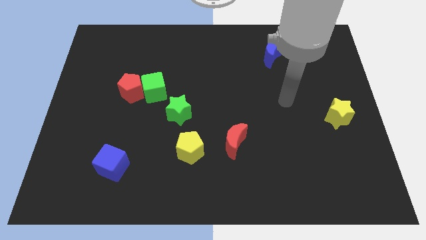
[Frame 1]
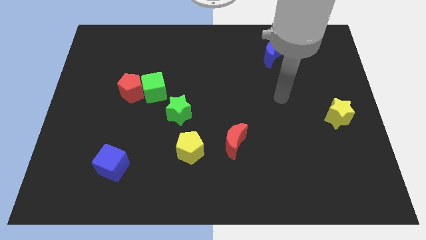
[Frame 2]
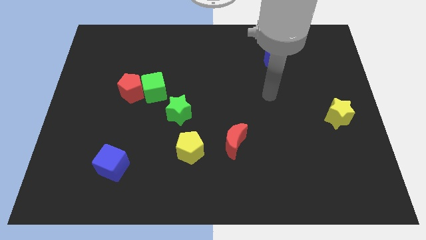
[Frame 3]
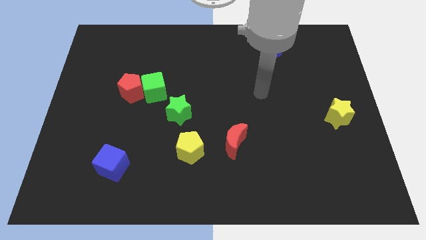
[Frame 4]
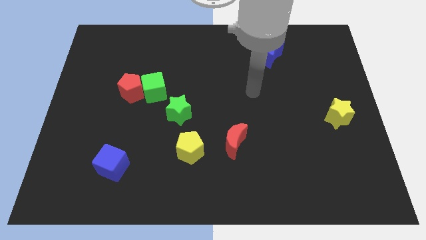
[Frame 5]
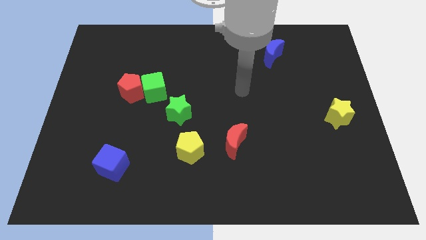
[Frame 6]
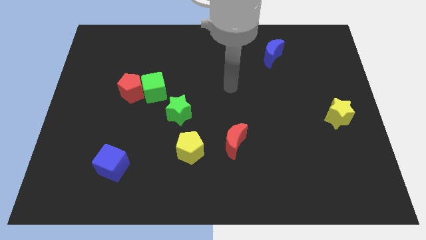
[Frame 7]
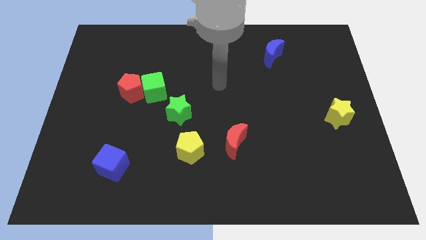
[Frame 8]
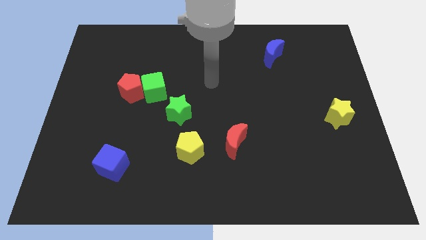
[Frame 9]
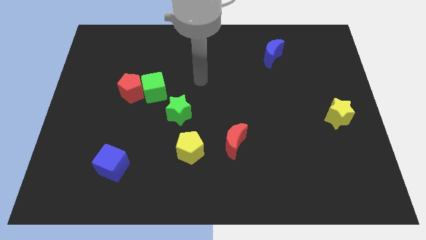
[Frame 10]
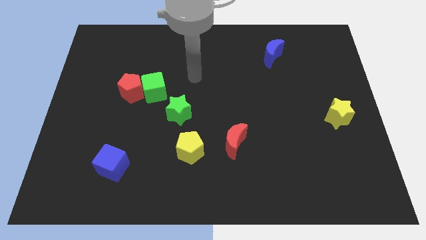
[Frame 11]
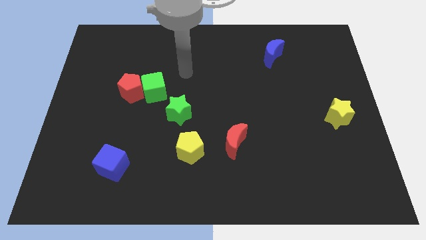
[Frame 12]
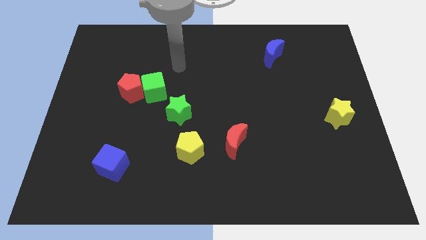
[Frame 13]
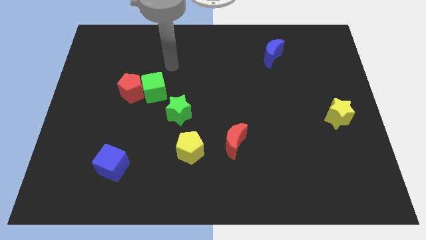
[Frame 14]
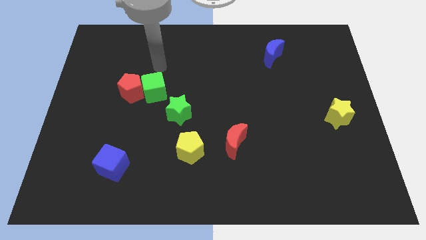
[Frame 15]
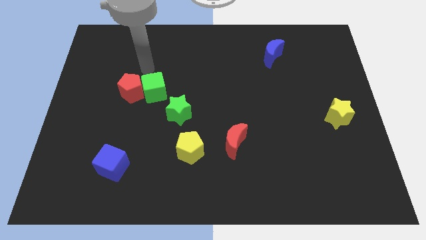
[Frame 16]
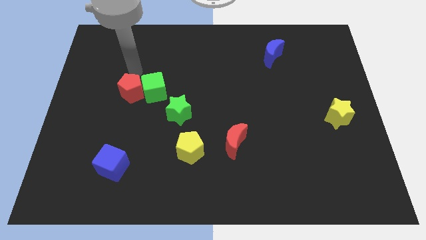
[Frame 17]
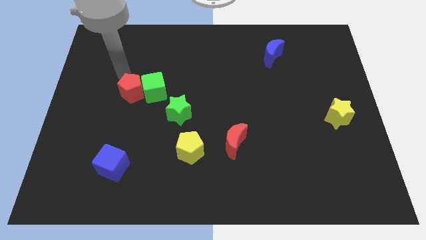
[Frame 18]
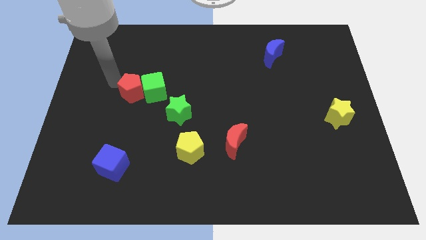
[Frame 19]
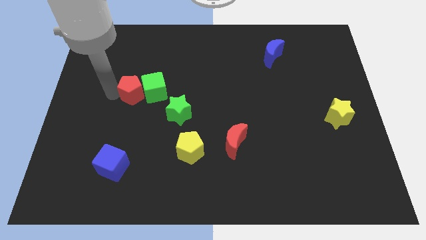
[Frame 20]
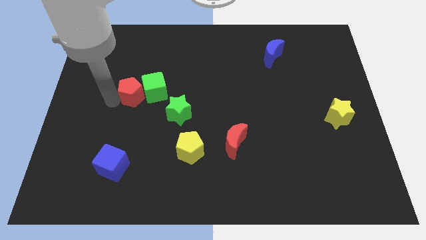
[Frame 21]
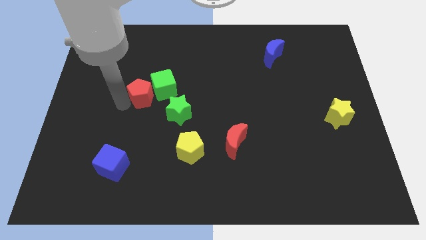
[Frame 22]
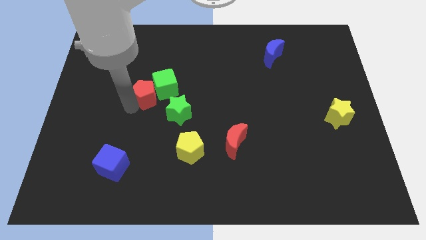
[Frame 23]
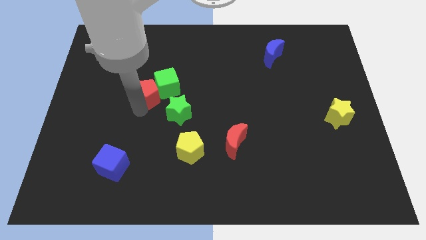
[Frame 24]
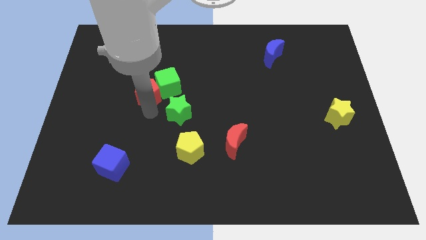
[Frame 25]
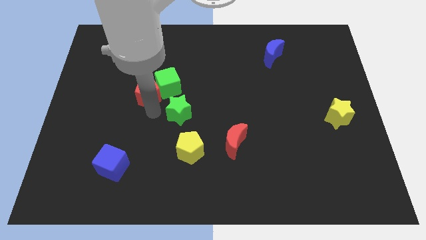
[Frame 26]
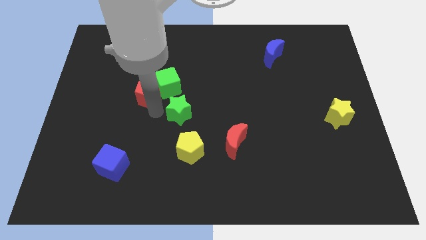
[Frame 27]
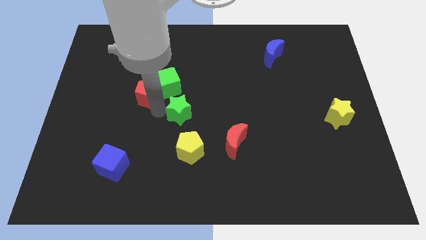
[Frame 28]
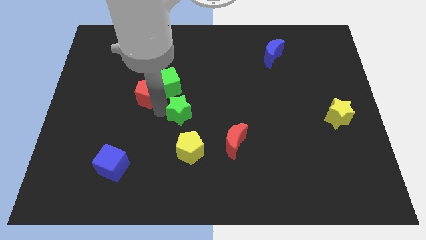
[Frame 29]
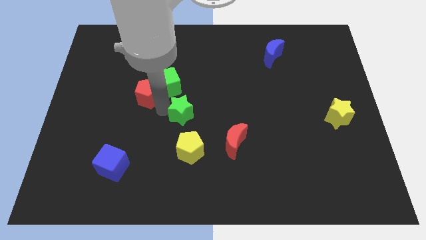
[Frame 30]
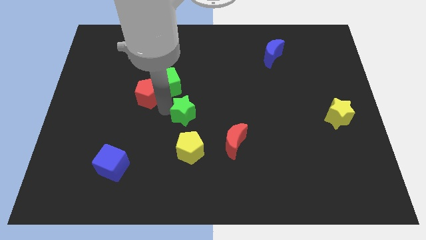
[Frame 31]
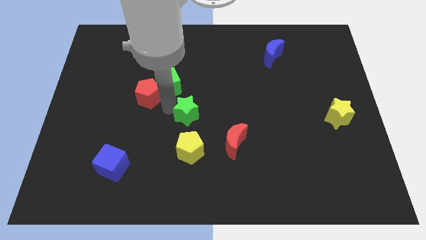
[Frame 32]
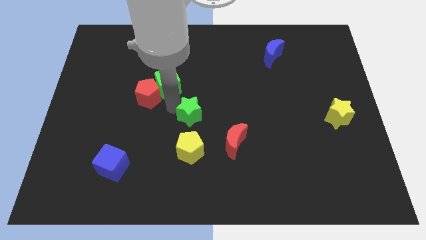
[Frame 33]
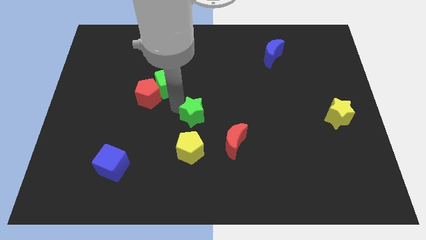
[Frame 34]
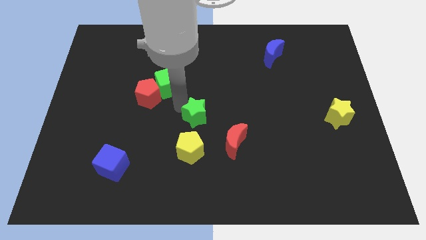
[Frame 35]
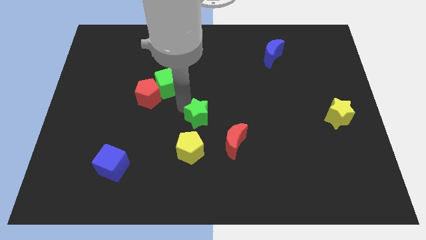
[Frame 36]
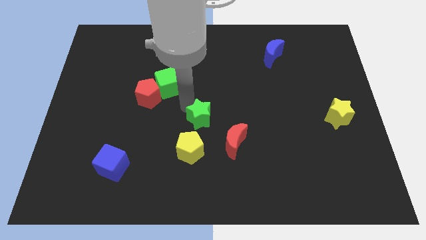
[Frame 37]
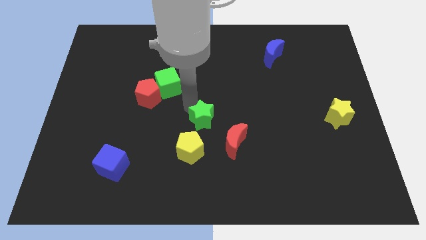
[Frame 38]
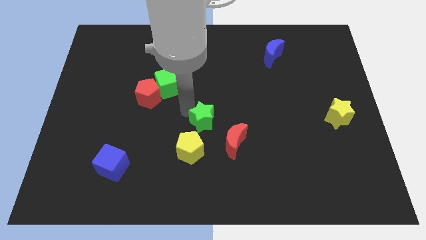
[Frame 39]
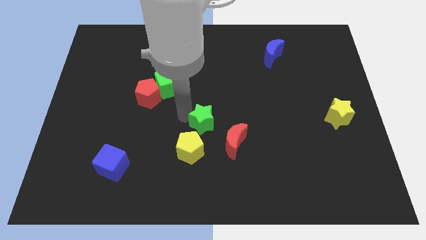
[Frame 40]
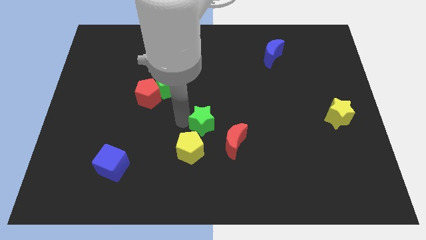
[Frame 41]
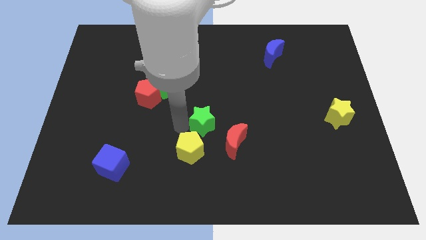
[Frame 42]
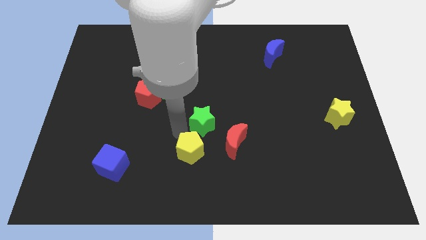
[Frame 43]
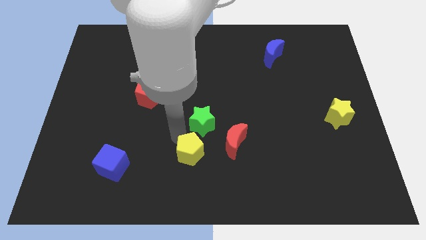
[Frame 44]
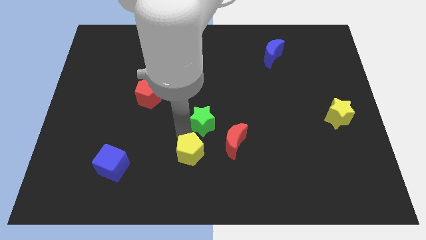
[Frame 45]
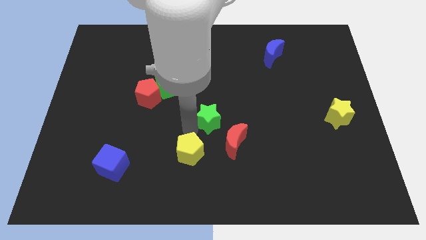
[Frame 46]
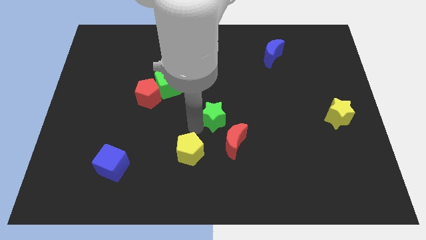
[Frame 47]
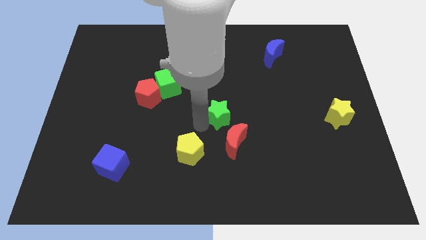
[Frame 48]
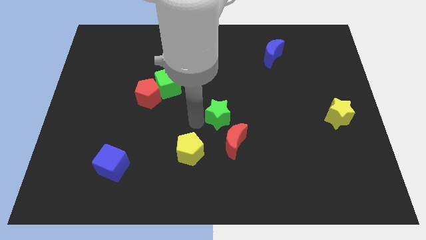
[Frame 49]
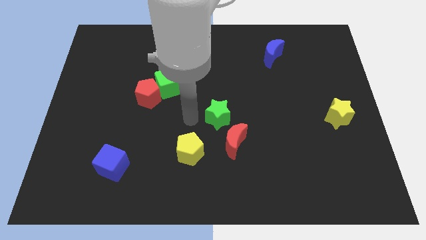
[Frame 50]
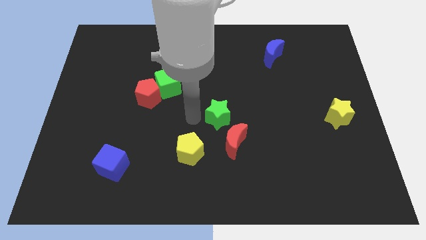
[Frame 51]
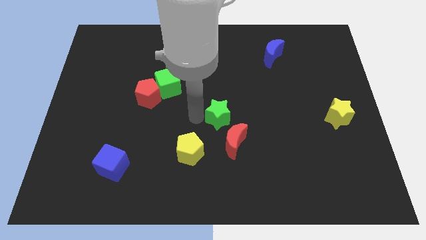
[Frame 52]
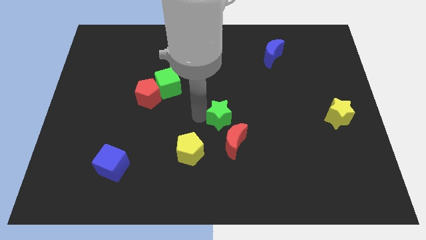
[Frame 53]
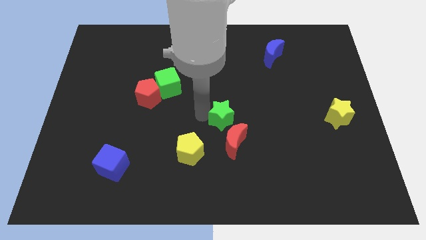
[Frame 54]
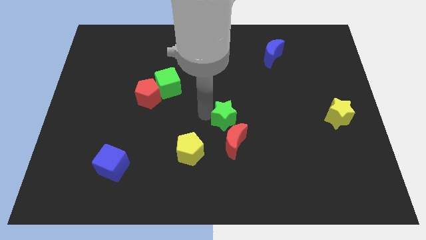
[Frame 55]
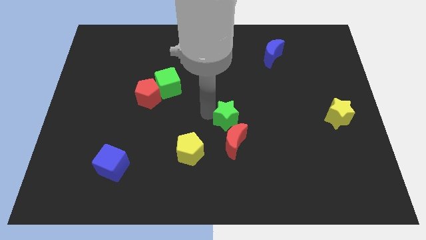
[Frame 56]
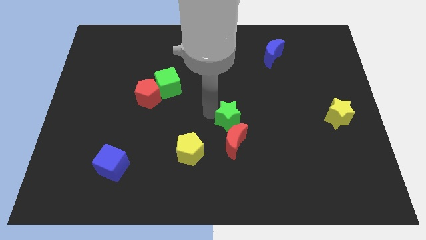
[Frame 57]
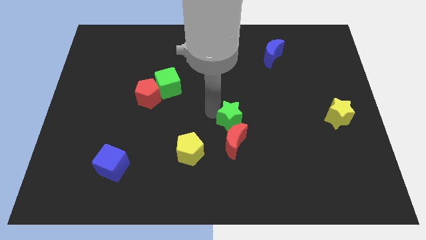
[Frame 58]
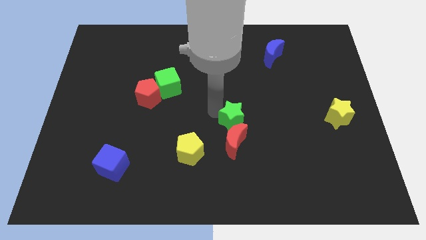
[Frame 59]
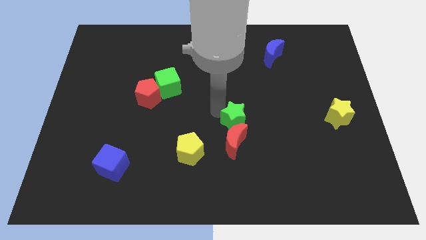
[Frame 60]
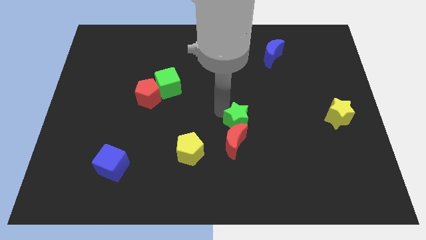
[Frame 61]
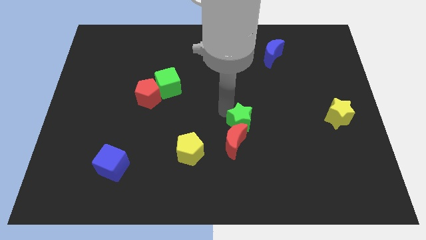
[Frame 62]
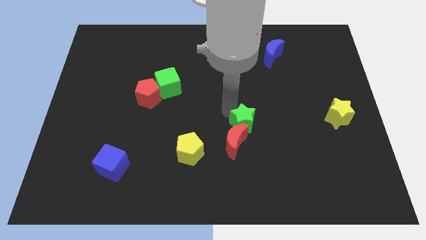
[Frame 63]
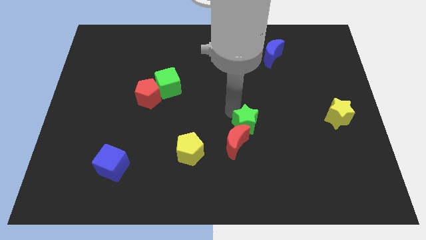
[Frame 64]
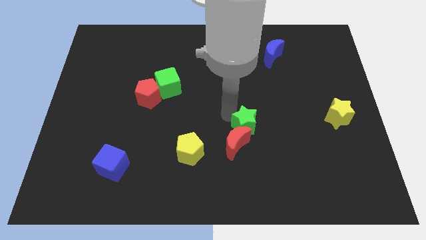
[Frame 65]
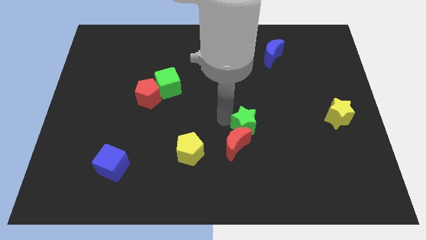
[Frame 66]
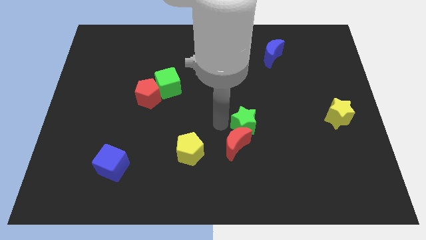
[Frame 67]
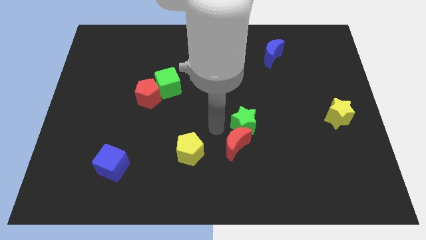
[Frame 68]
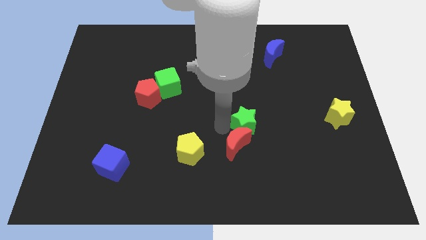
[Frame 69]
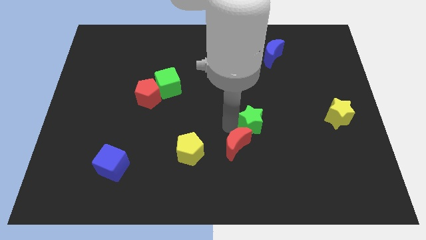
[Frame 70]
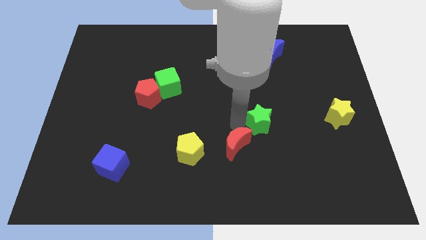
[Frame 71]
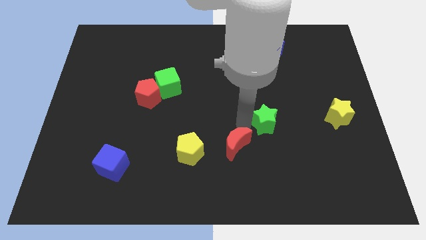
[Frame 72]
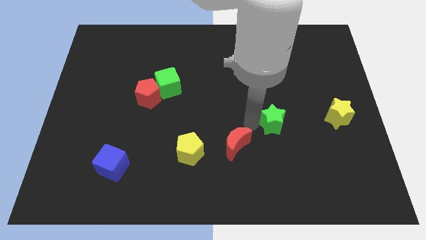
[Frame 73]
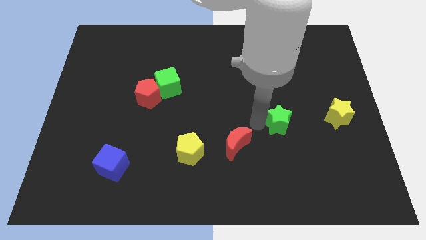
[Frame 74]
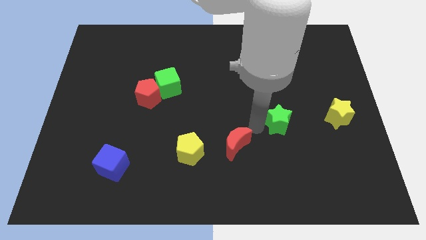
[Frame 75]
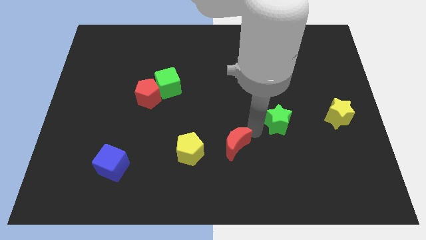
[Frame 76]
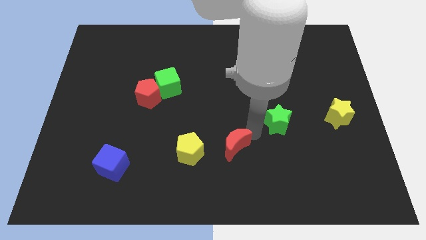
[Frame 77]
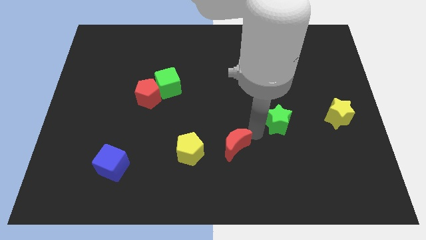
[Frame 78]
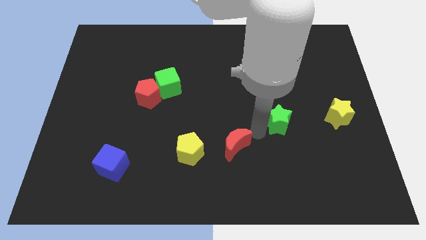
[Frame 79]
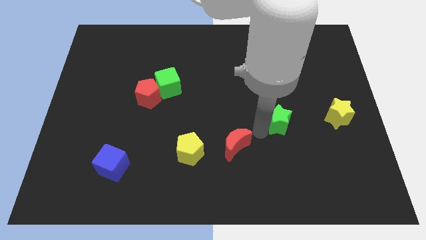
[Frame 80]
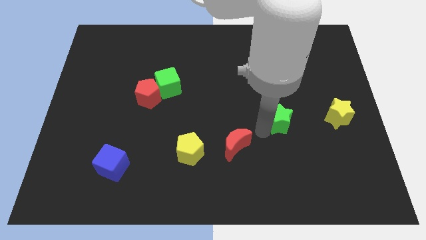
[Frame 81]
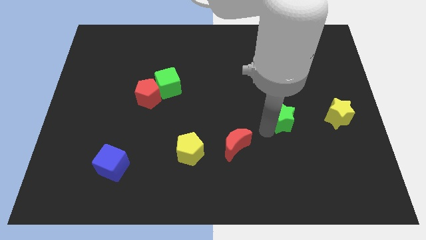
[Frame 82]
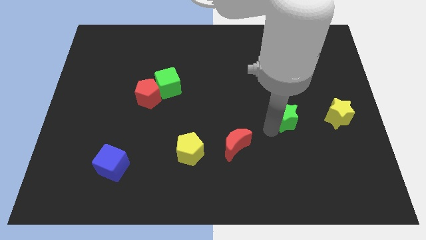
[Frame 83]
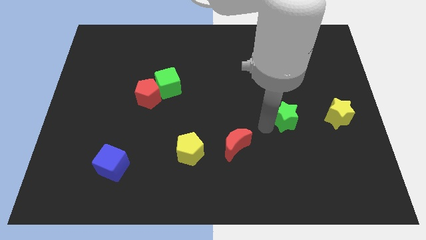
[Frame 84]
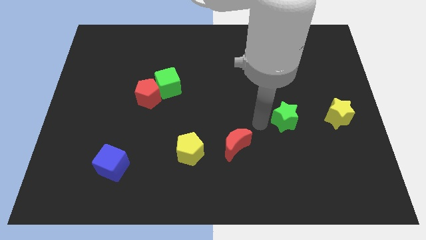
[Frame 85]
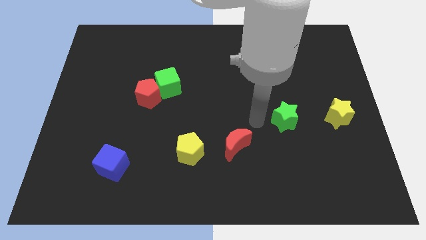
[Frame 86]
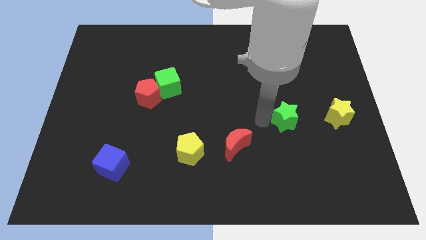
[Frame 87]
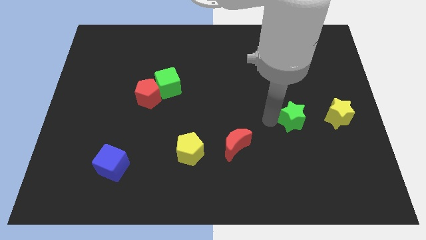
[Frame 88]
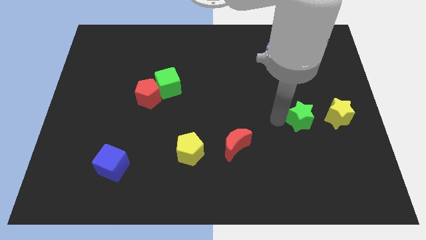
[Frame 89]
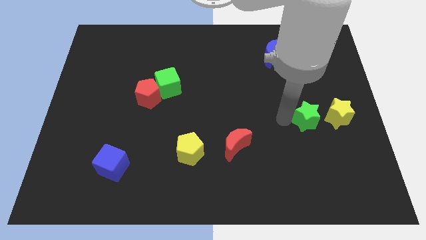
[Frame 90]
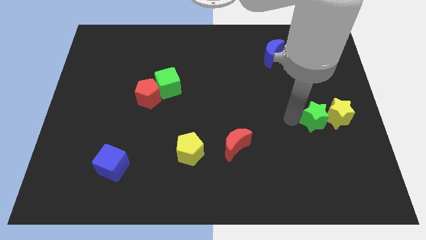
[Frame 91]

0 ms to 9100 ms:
move the green star next to the yellow star
